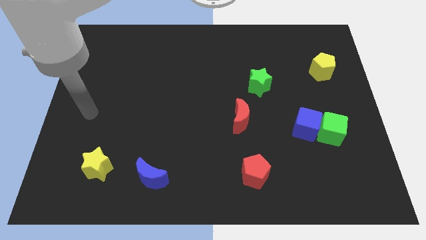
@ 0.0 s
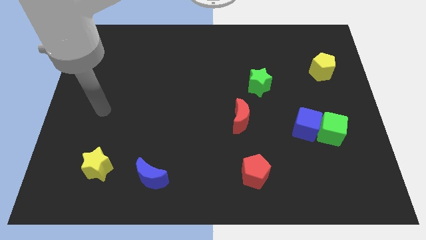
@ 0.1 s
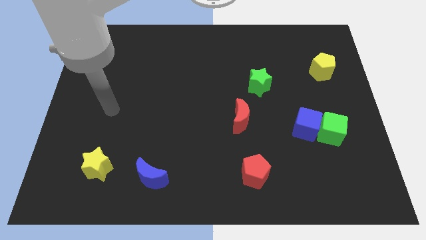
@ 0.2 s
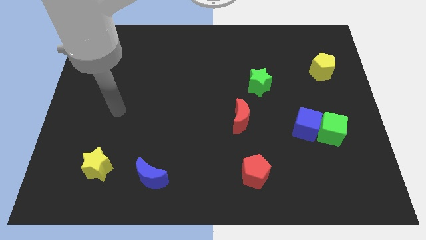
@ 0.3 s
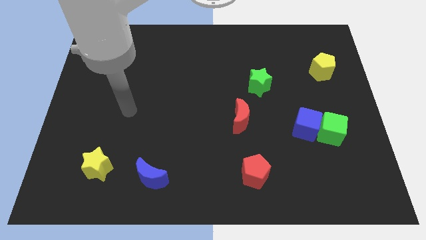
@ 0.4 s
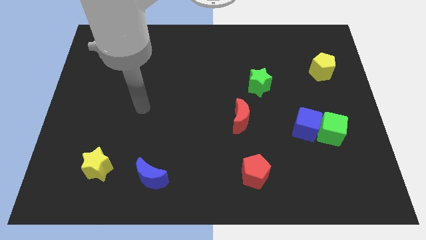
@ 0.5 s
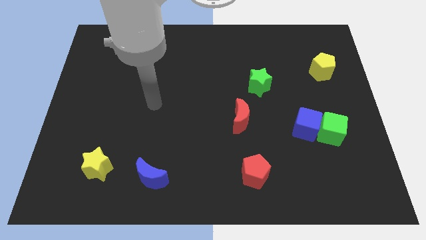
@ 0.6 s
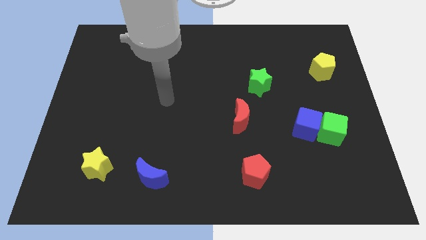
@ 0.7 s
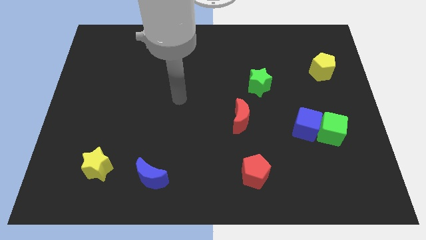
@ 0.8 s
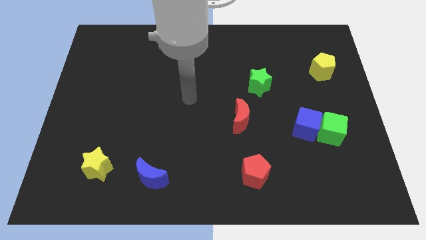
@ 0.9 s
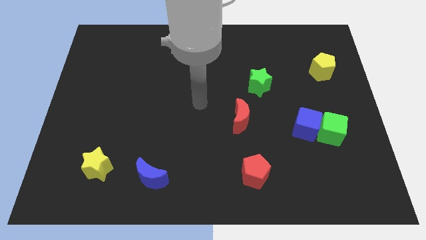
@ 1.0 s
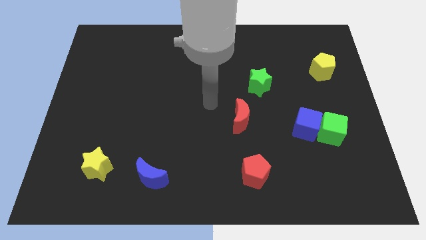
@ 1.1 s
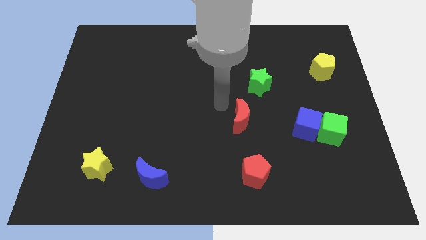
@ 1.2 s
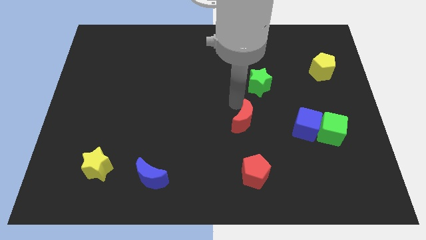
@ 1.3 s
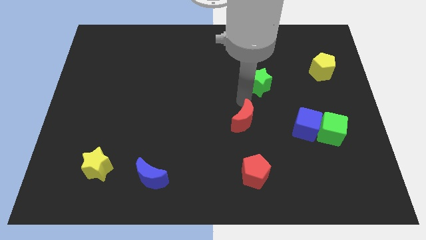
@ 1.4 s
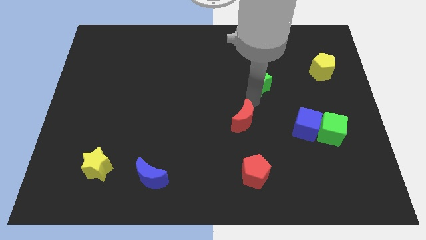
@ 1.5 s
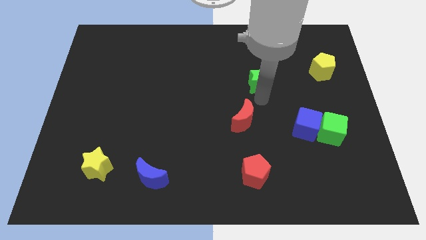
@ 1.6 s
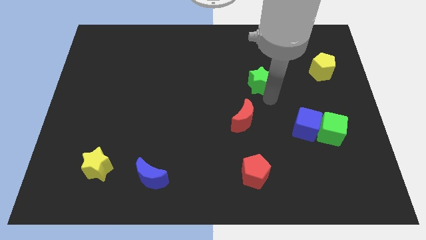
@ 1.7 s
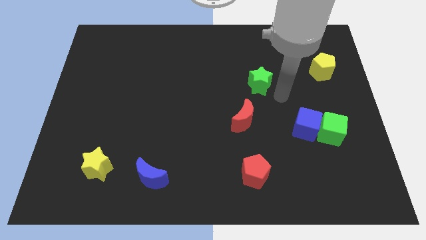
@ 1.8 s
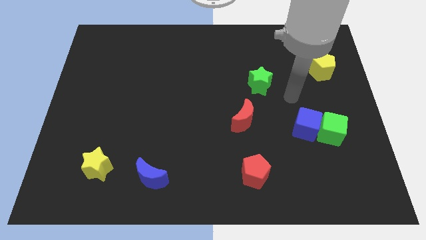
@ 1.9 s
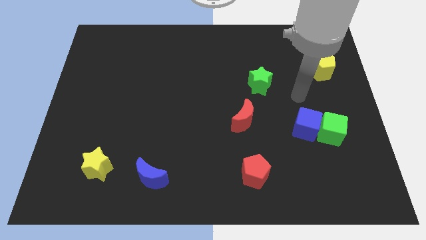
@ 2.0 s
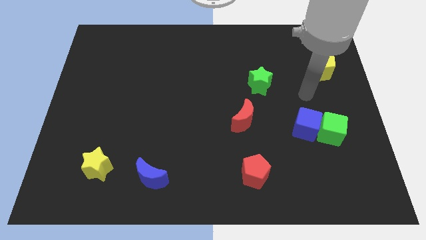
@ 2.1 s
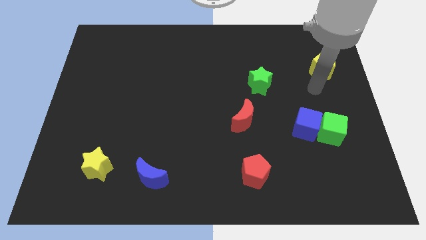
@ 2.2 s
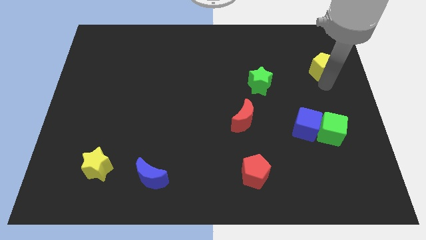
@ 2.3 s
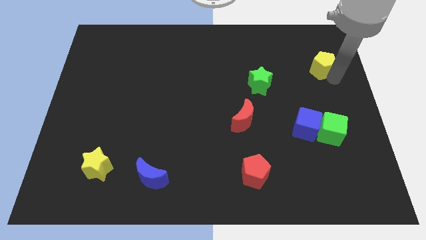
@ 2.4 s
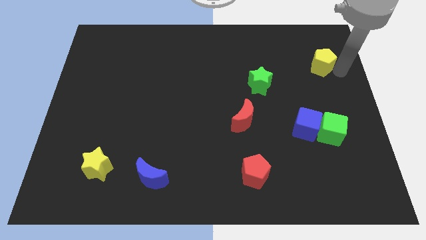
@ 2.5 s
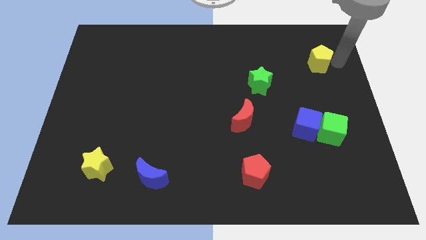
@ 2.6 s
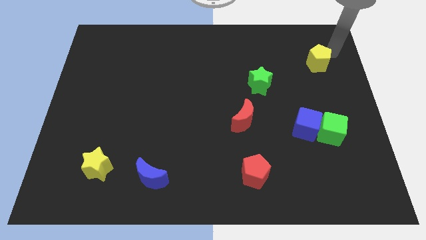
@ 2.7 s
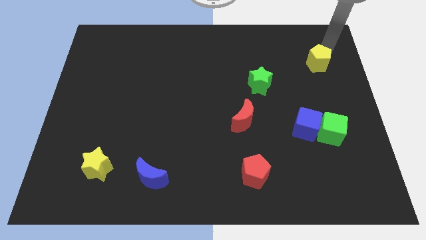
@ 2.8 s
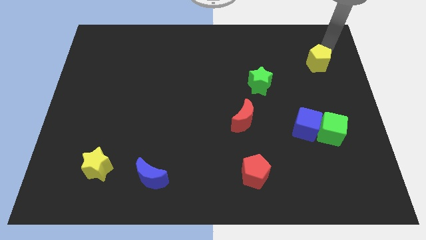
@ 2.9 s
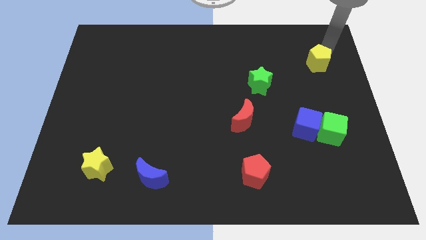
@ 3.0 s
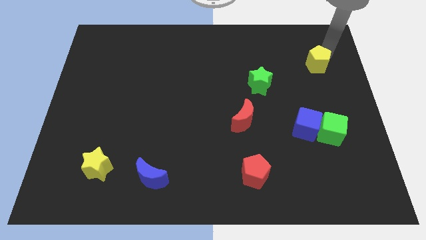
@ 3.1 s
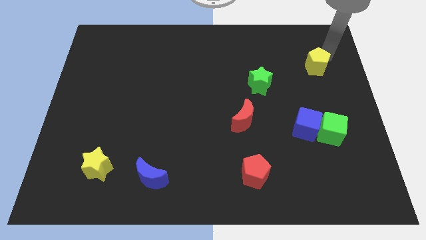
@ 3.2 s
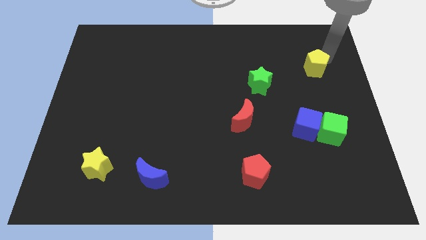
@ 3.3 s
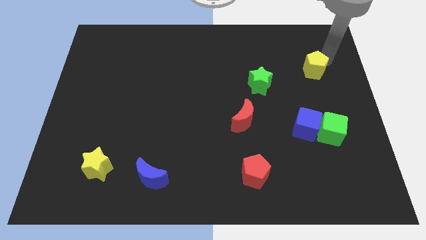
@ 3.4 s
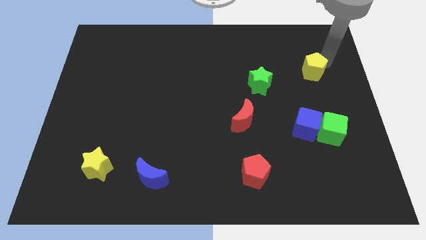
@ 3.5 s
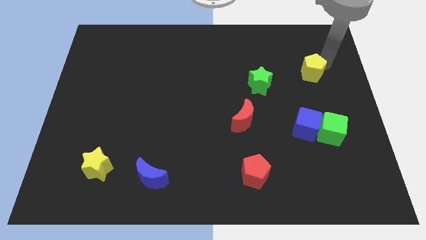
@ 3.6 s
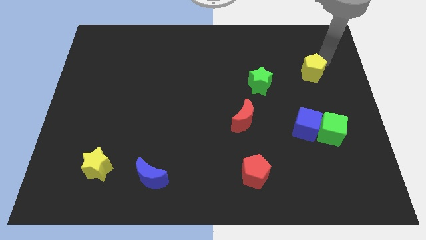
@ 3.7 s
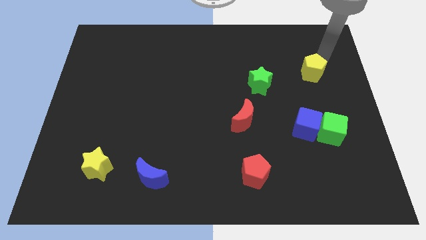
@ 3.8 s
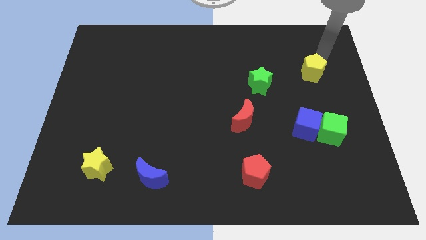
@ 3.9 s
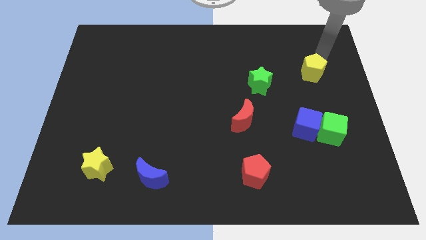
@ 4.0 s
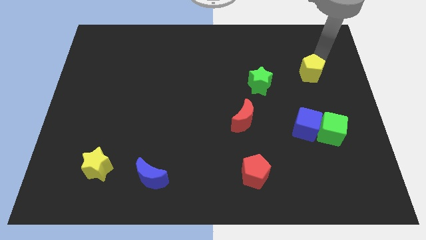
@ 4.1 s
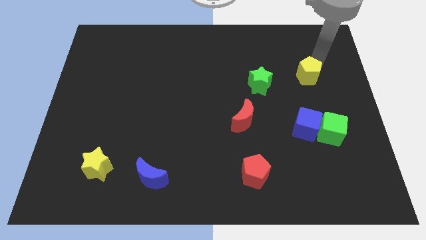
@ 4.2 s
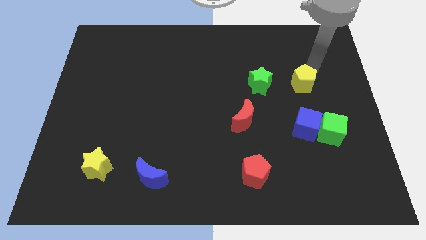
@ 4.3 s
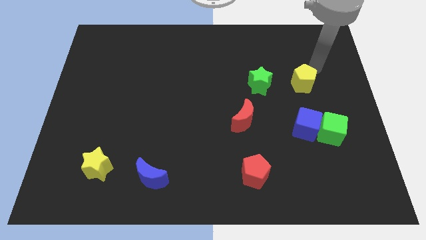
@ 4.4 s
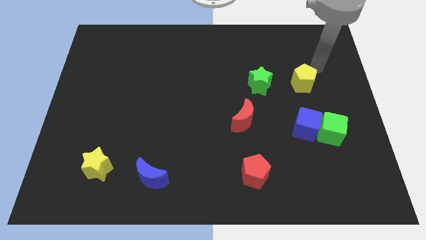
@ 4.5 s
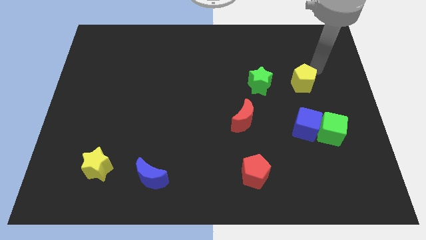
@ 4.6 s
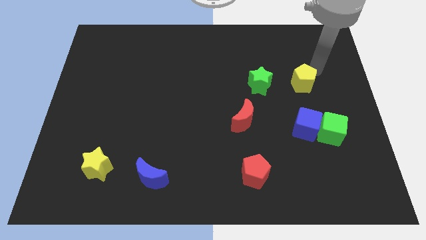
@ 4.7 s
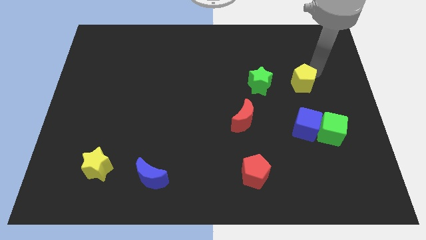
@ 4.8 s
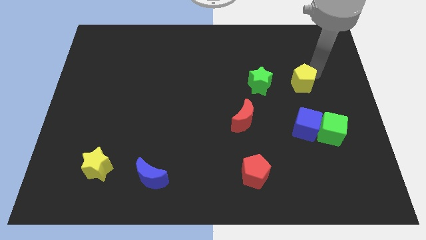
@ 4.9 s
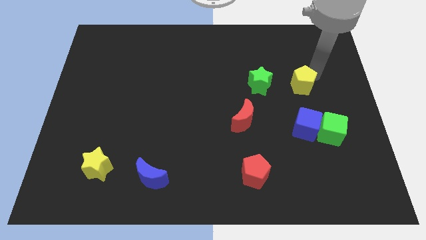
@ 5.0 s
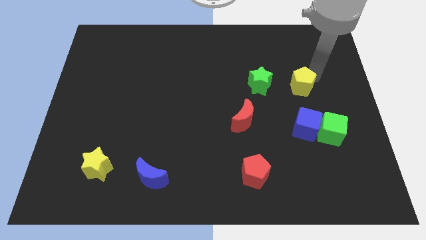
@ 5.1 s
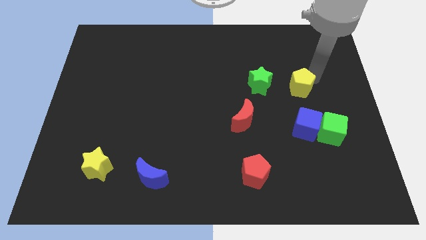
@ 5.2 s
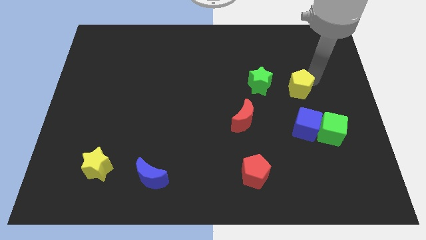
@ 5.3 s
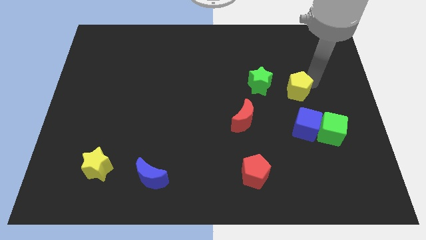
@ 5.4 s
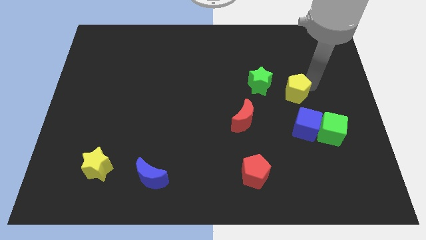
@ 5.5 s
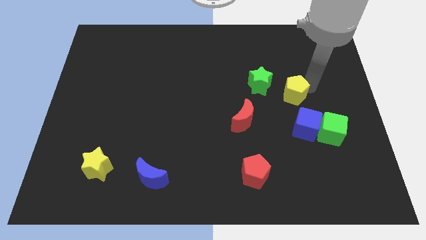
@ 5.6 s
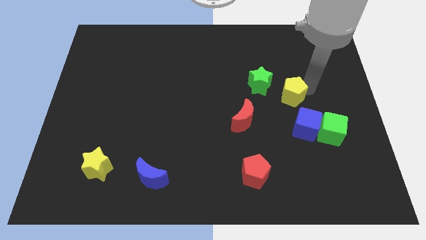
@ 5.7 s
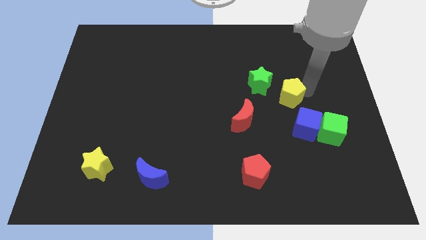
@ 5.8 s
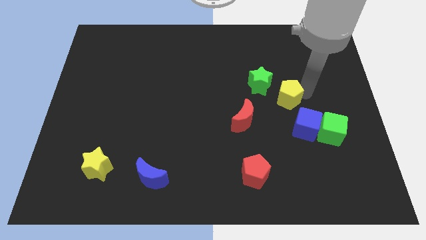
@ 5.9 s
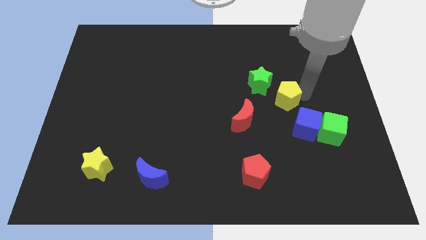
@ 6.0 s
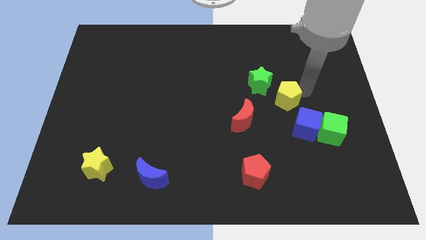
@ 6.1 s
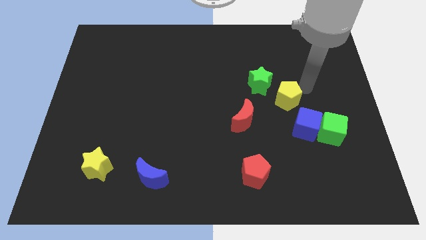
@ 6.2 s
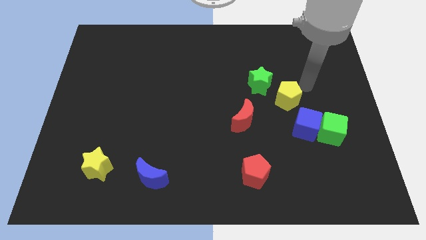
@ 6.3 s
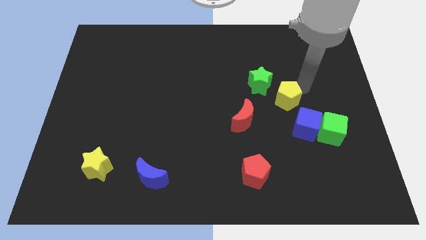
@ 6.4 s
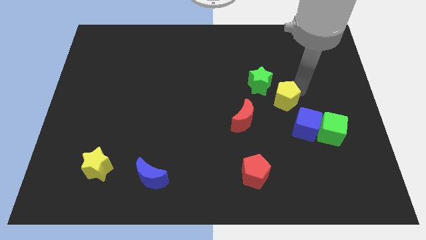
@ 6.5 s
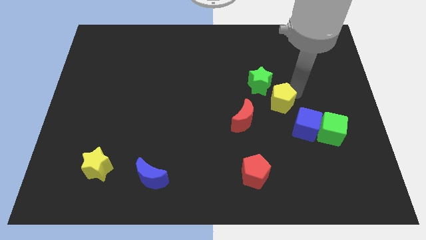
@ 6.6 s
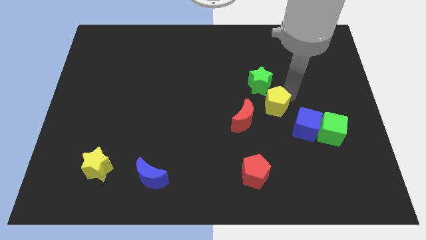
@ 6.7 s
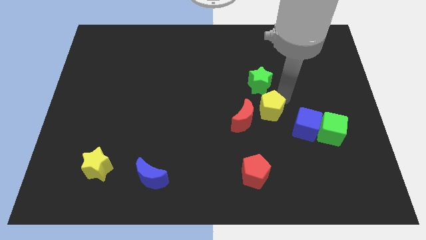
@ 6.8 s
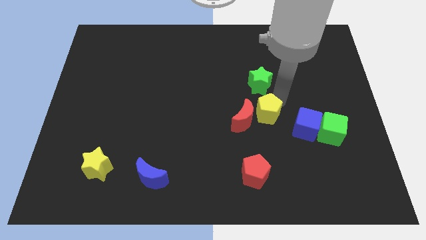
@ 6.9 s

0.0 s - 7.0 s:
slide the yellow pentagon downwards and left diagonally

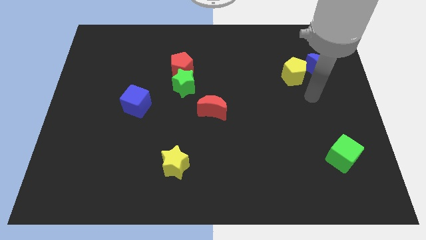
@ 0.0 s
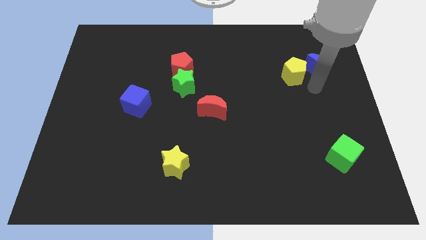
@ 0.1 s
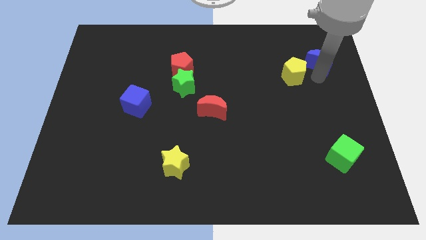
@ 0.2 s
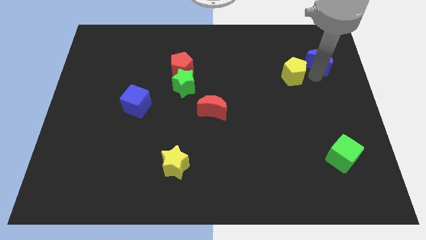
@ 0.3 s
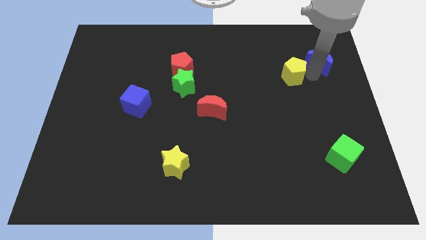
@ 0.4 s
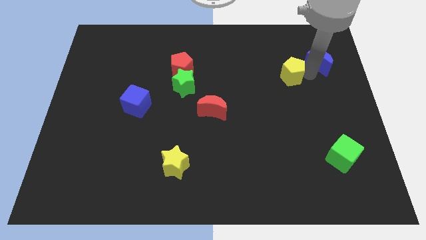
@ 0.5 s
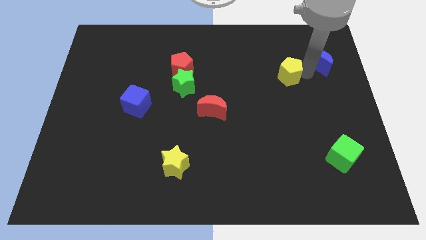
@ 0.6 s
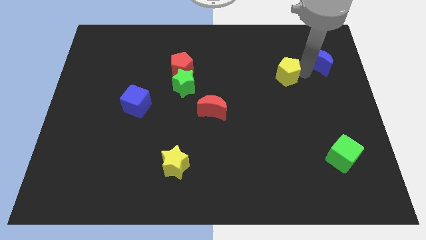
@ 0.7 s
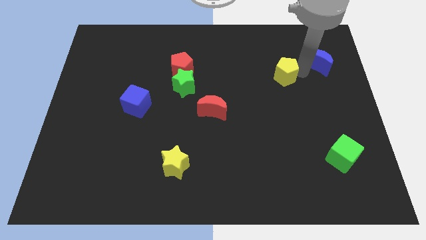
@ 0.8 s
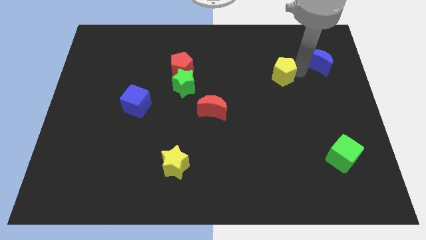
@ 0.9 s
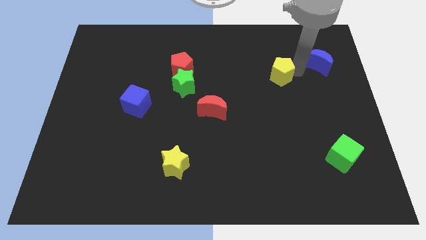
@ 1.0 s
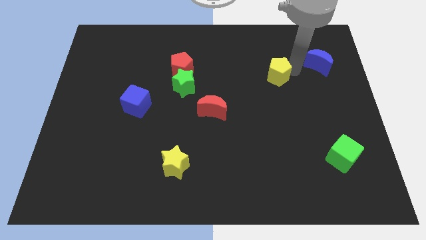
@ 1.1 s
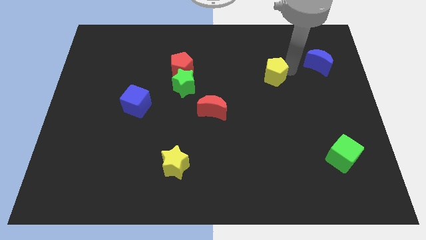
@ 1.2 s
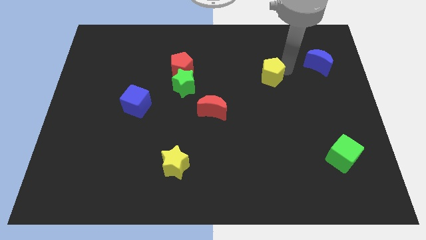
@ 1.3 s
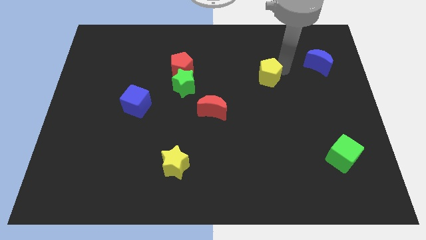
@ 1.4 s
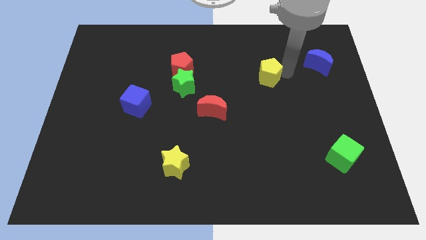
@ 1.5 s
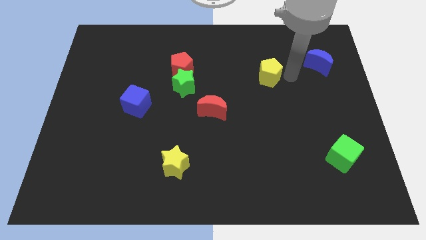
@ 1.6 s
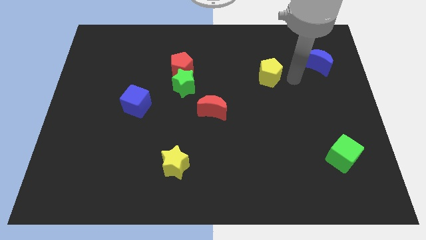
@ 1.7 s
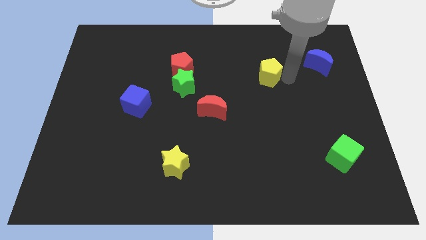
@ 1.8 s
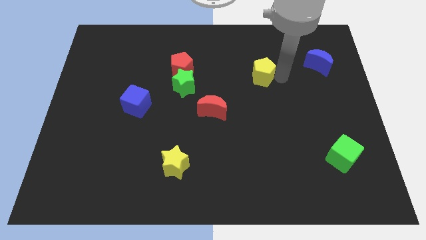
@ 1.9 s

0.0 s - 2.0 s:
slide the yellow pentagon a bit left
